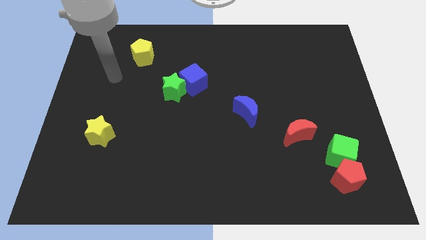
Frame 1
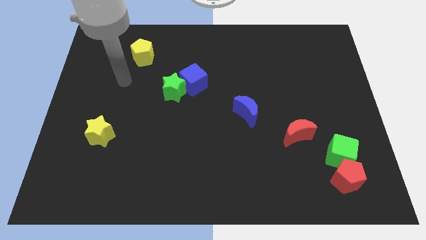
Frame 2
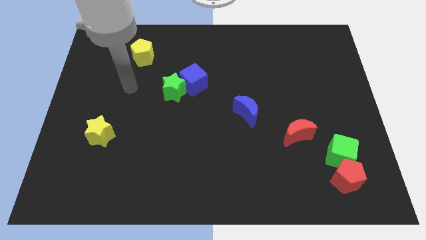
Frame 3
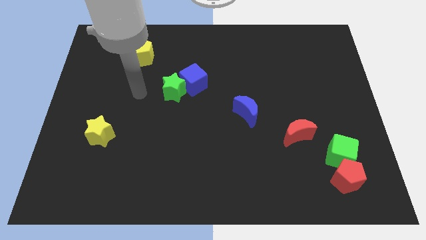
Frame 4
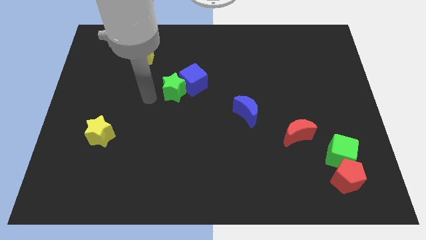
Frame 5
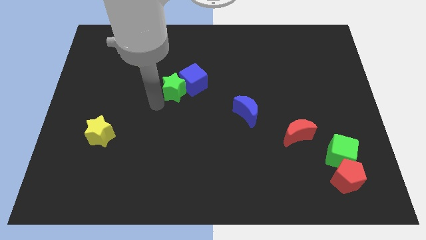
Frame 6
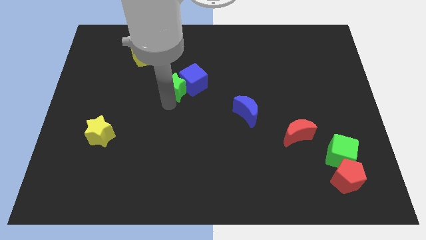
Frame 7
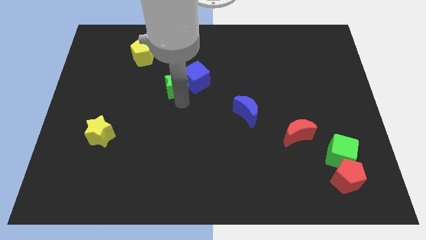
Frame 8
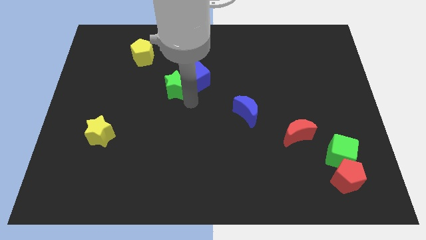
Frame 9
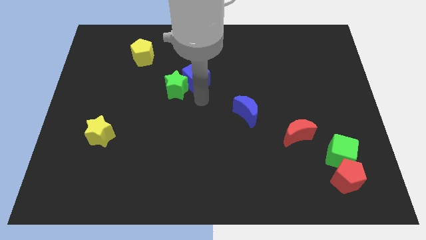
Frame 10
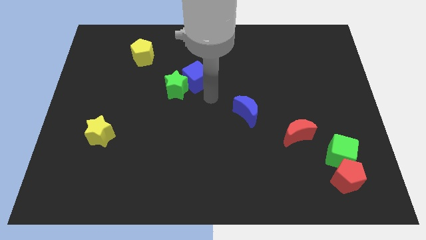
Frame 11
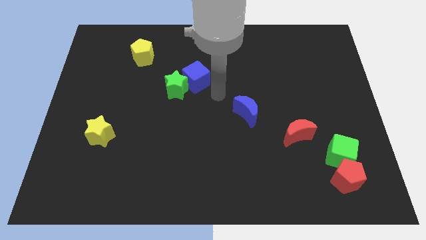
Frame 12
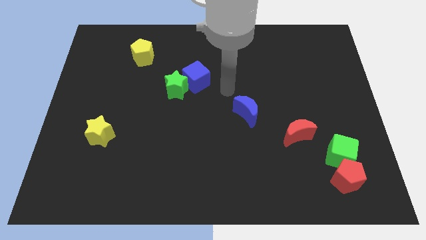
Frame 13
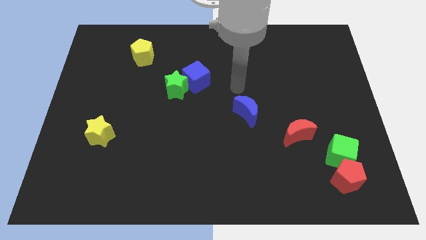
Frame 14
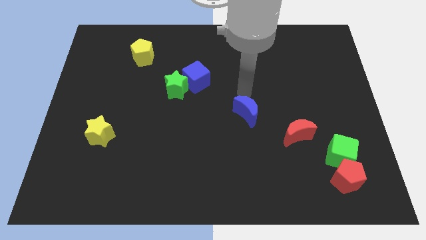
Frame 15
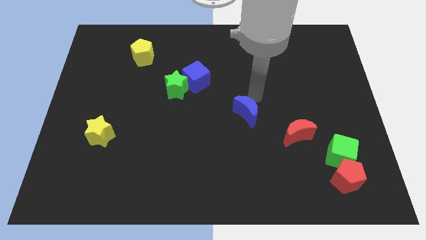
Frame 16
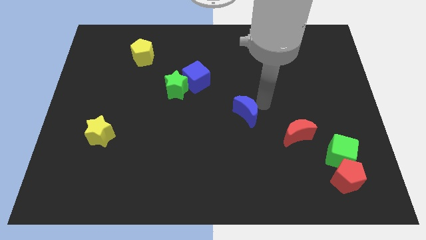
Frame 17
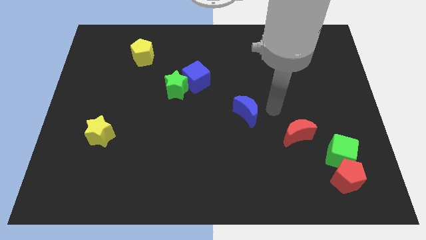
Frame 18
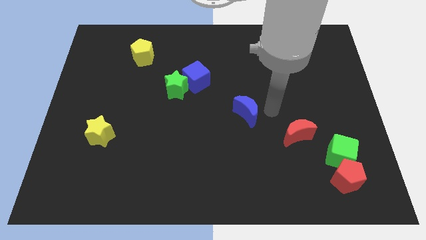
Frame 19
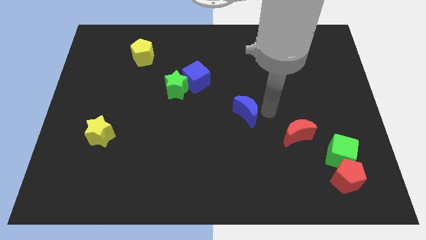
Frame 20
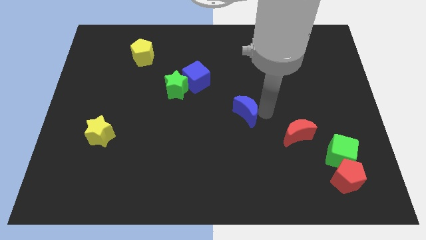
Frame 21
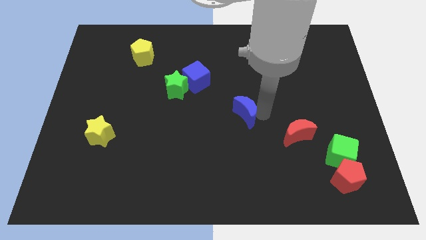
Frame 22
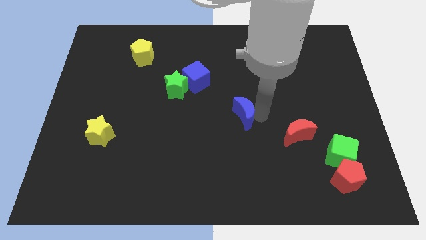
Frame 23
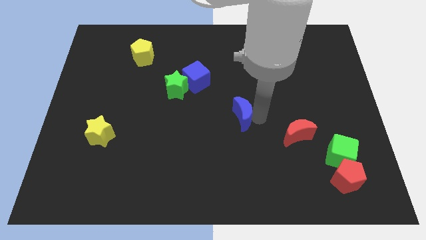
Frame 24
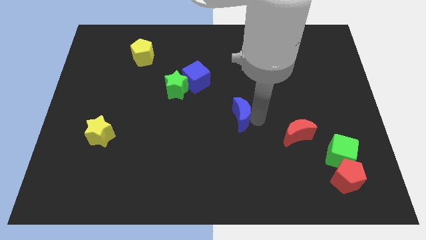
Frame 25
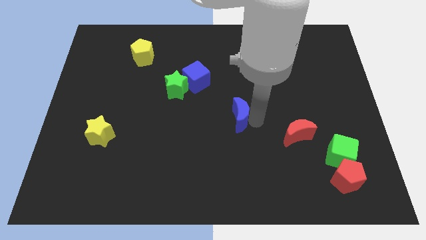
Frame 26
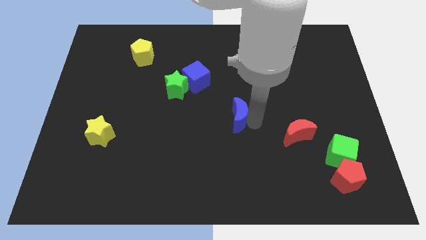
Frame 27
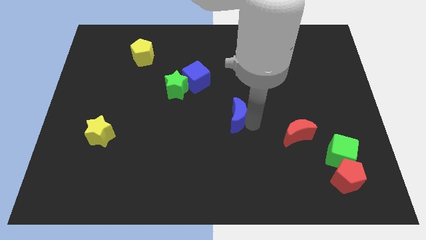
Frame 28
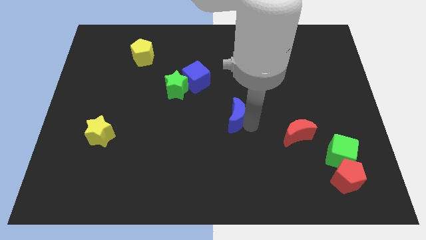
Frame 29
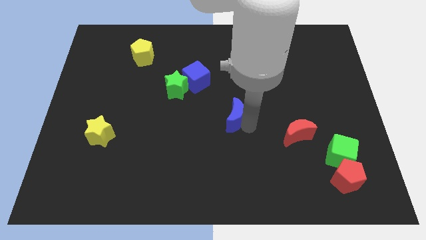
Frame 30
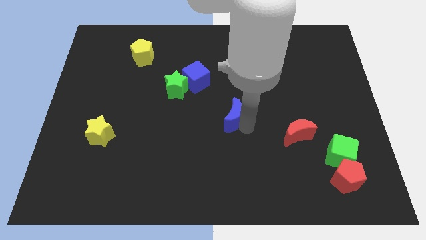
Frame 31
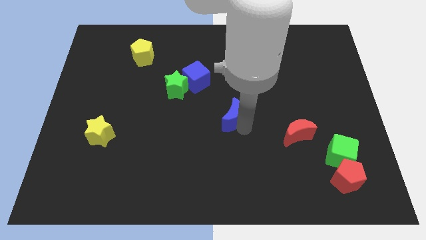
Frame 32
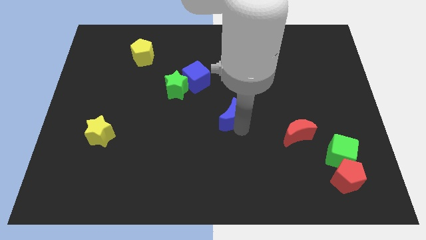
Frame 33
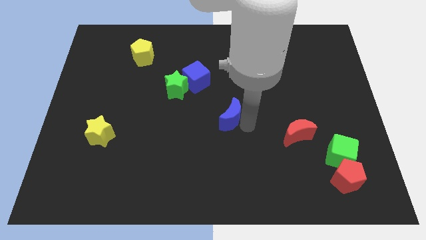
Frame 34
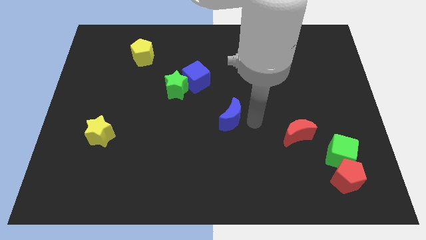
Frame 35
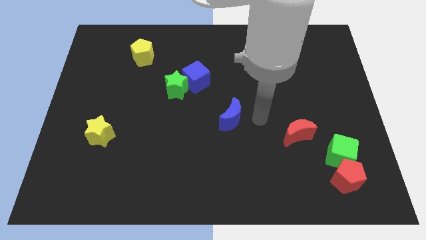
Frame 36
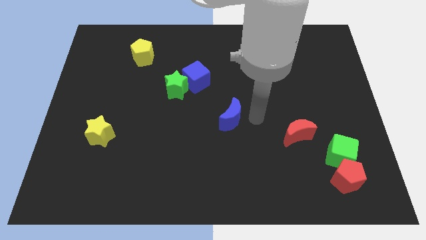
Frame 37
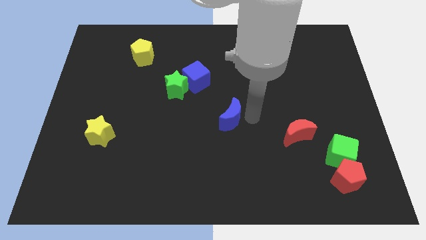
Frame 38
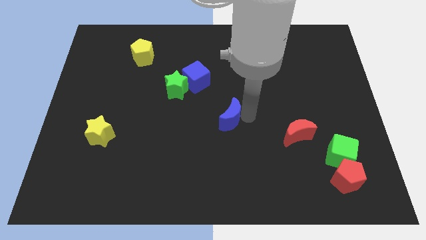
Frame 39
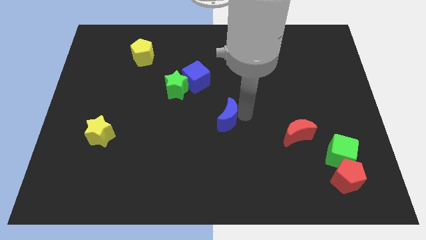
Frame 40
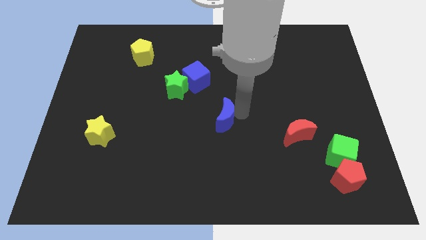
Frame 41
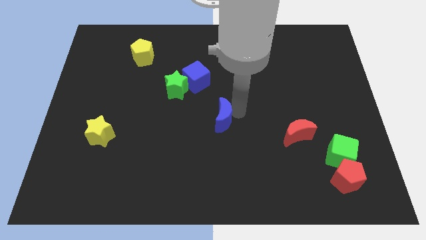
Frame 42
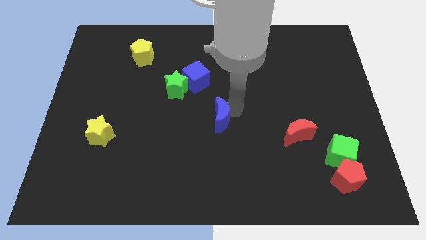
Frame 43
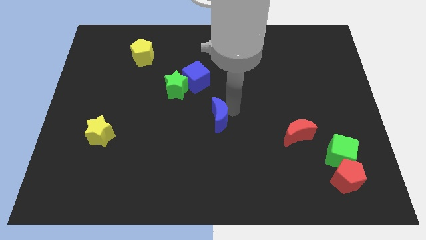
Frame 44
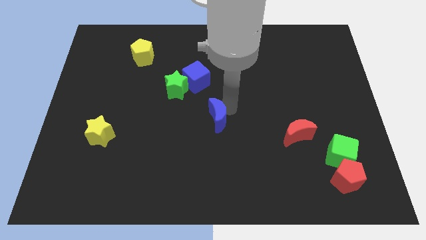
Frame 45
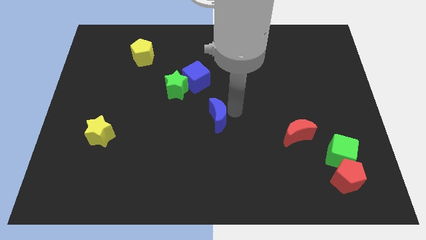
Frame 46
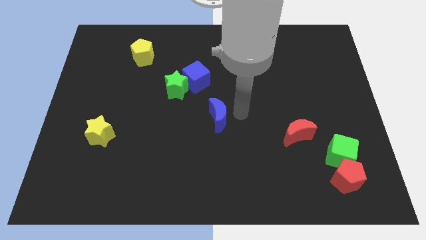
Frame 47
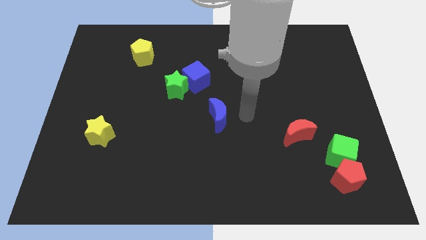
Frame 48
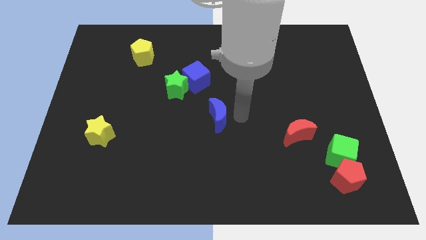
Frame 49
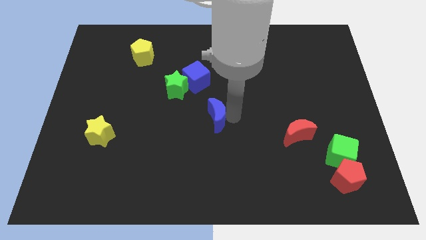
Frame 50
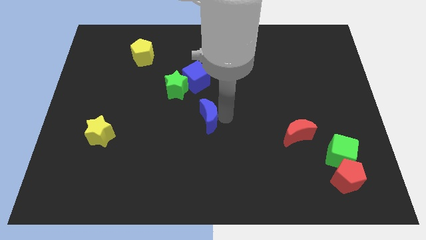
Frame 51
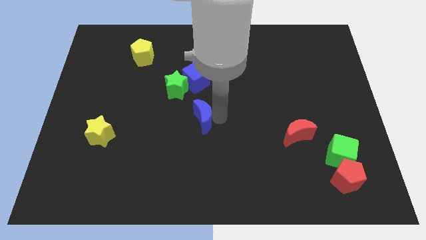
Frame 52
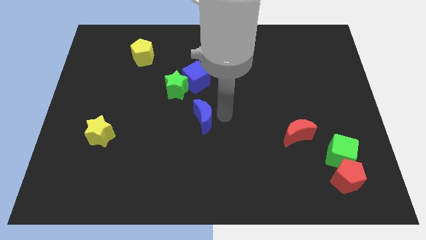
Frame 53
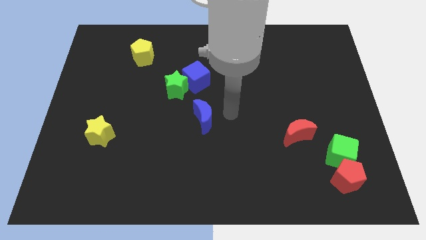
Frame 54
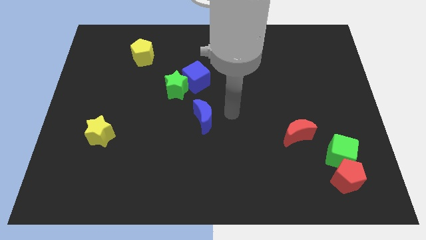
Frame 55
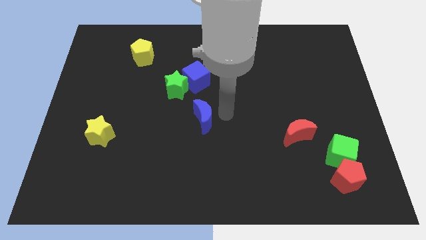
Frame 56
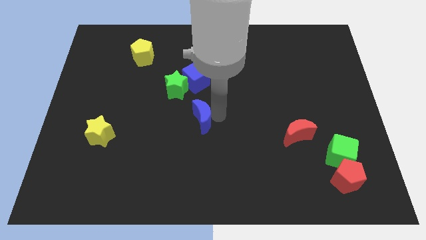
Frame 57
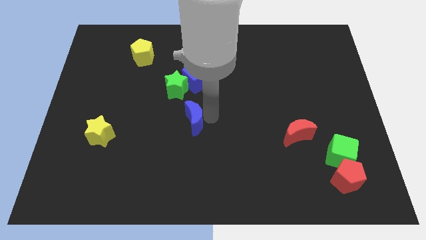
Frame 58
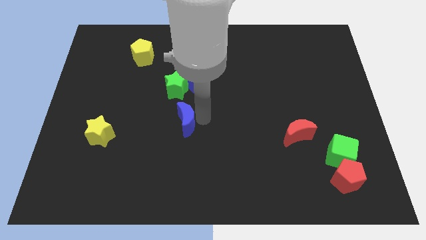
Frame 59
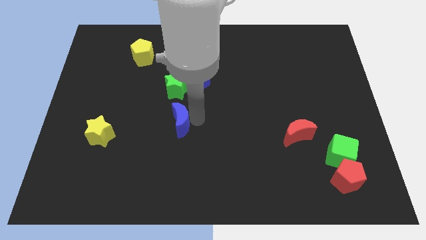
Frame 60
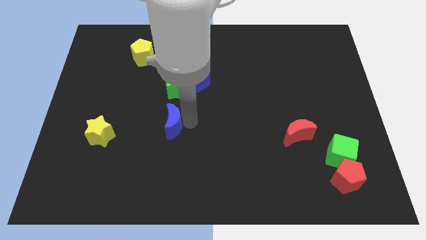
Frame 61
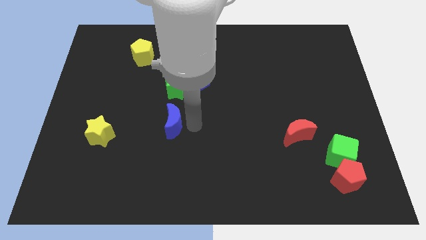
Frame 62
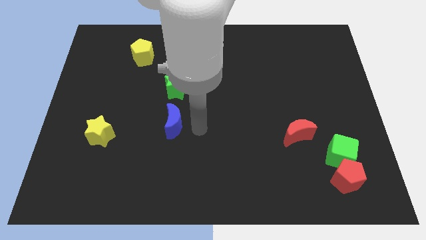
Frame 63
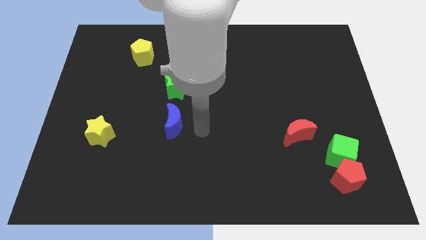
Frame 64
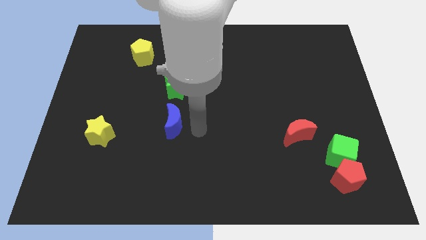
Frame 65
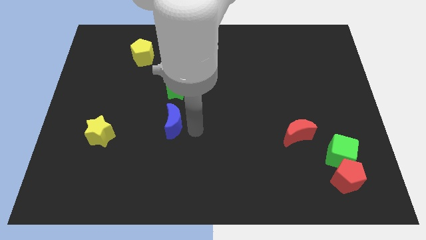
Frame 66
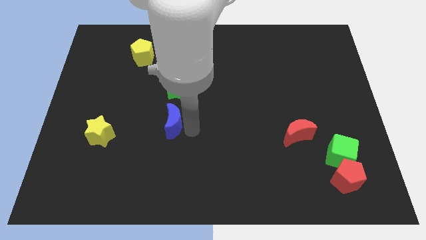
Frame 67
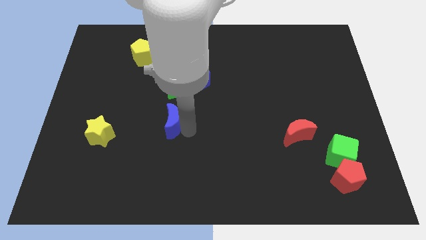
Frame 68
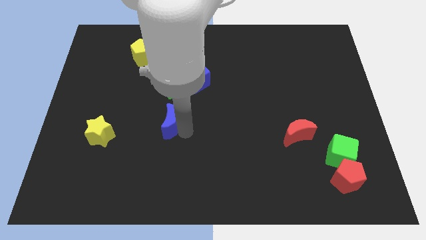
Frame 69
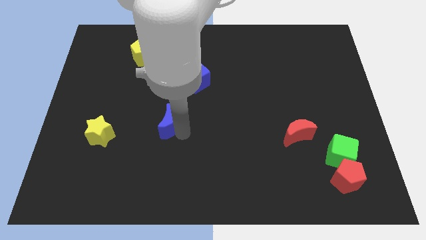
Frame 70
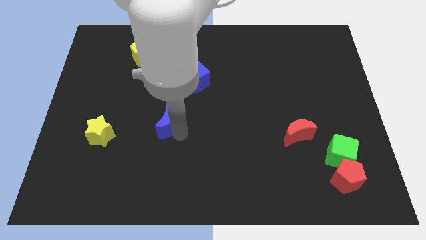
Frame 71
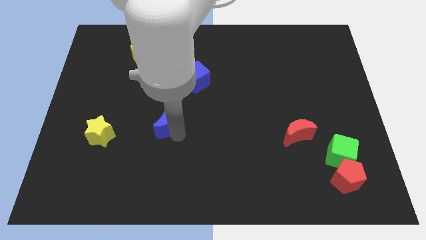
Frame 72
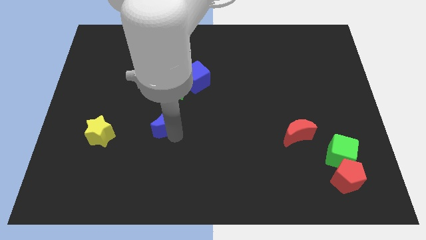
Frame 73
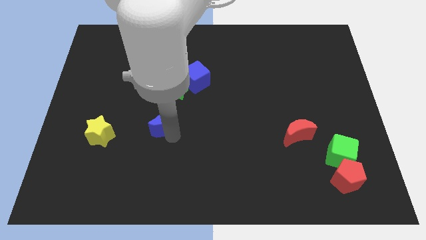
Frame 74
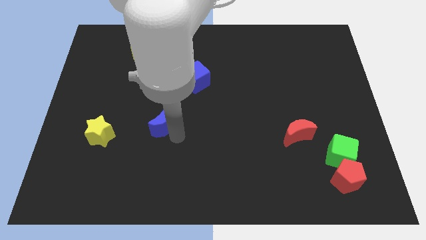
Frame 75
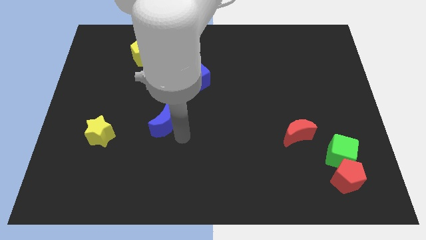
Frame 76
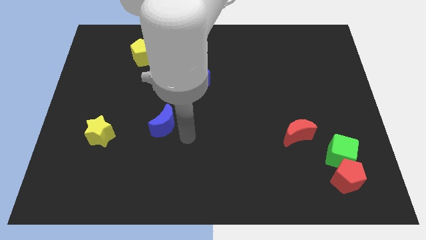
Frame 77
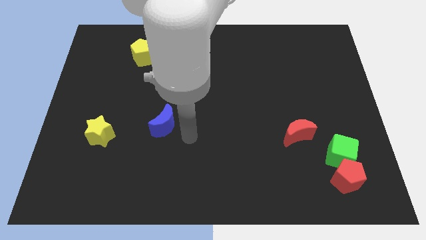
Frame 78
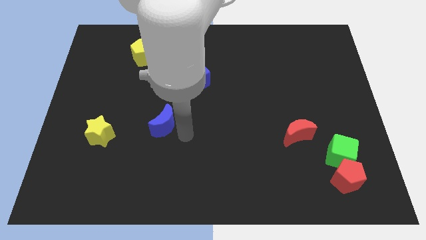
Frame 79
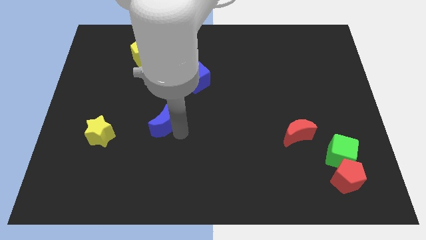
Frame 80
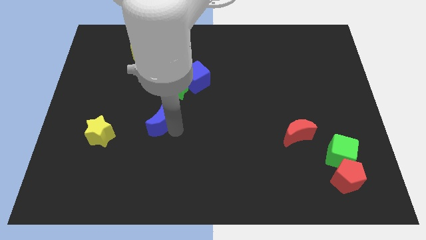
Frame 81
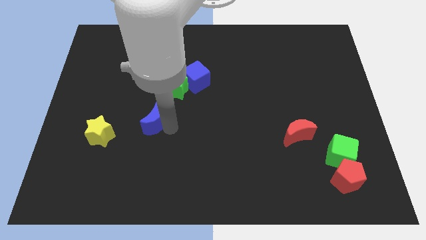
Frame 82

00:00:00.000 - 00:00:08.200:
move the blue moon to the left
